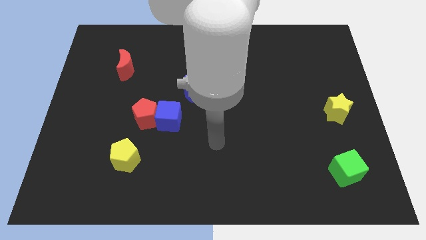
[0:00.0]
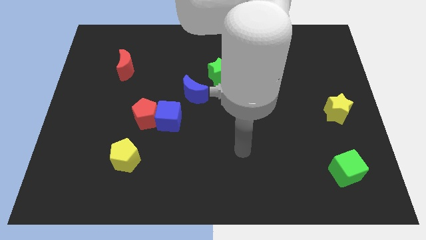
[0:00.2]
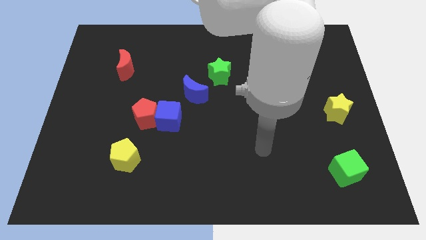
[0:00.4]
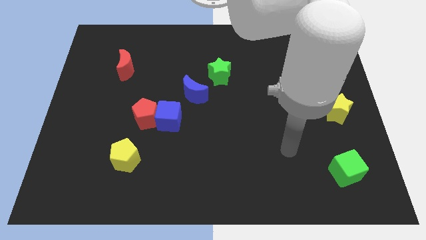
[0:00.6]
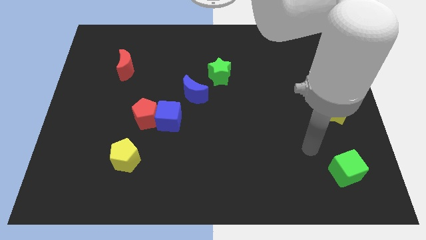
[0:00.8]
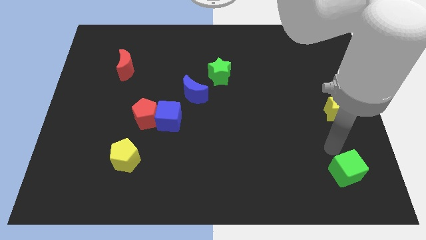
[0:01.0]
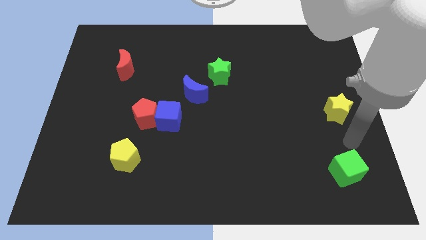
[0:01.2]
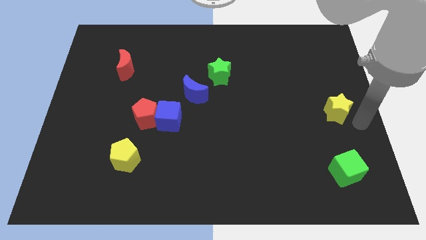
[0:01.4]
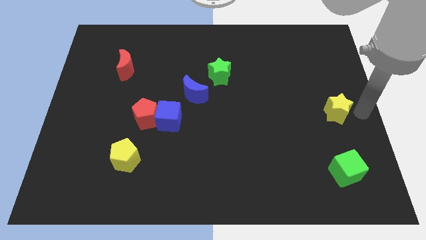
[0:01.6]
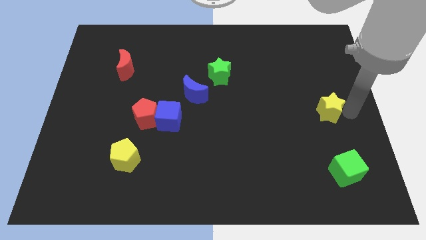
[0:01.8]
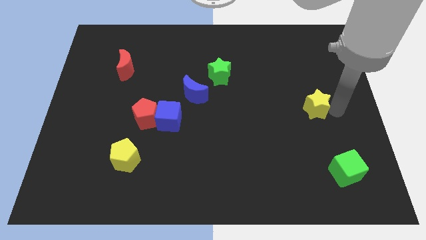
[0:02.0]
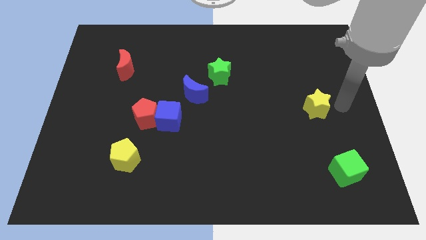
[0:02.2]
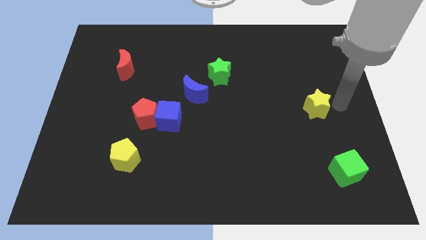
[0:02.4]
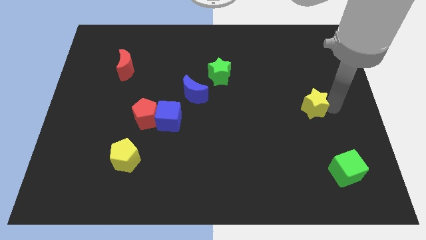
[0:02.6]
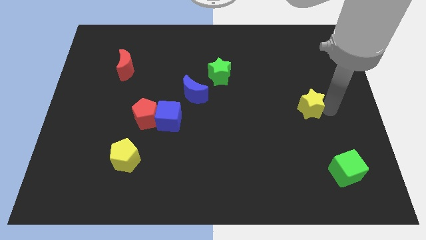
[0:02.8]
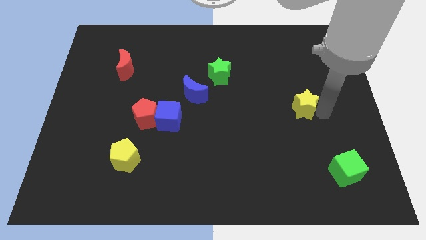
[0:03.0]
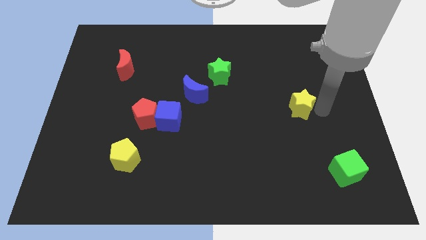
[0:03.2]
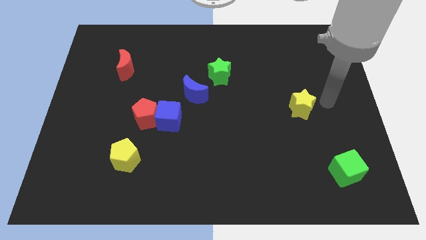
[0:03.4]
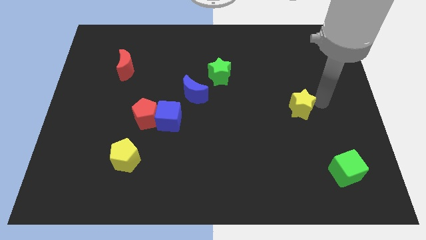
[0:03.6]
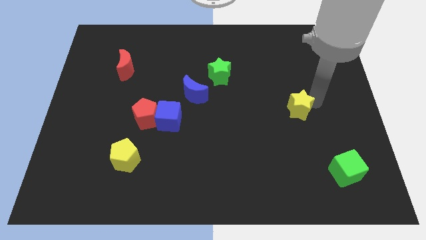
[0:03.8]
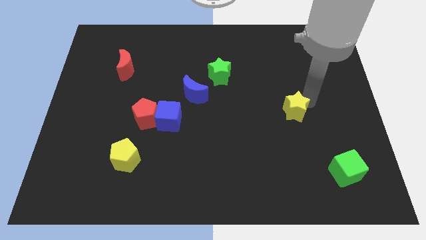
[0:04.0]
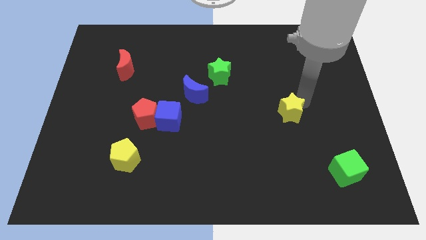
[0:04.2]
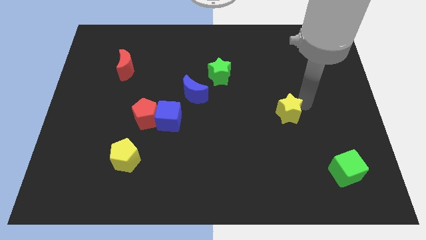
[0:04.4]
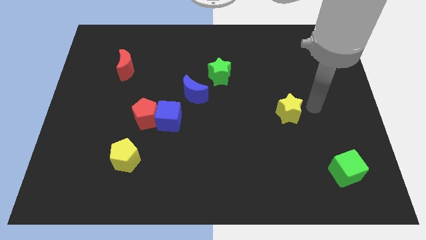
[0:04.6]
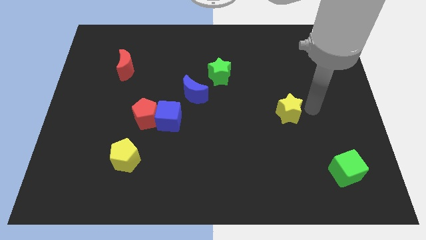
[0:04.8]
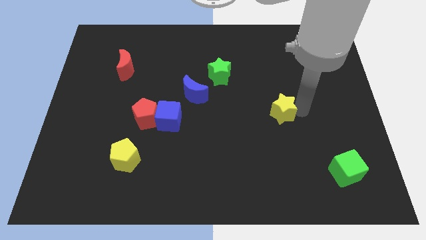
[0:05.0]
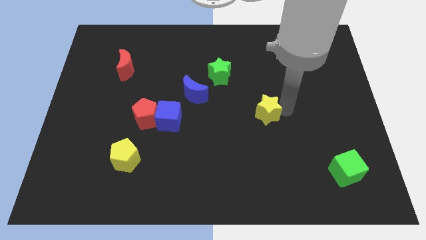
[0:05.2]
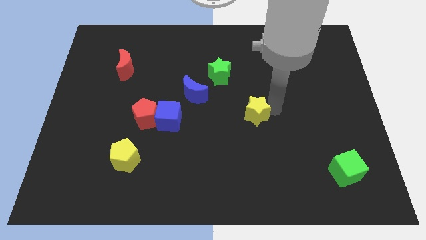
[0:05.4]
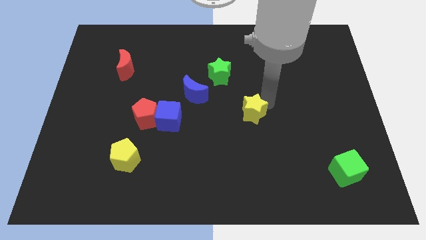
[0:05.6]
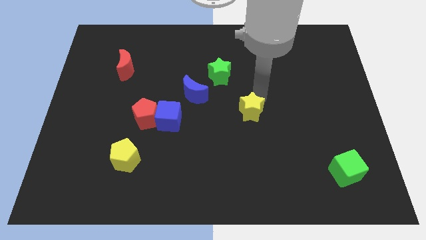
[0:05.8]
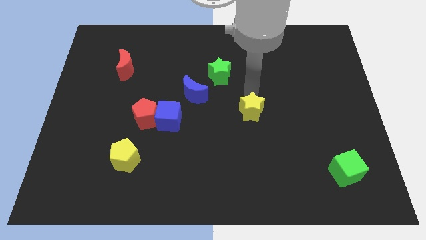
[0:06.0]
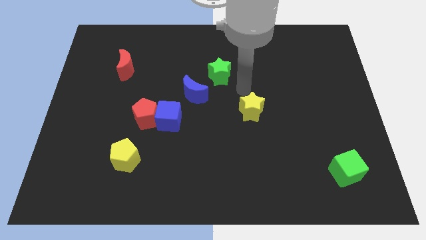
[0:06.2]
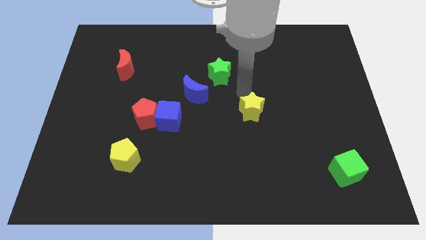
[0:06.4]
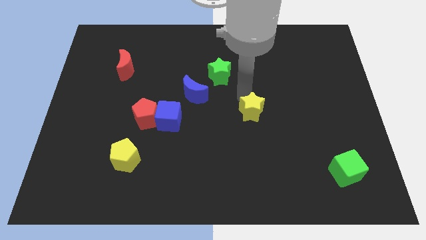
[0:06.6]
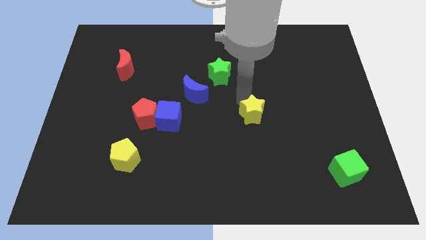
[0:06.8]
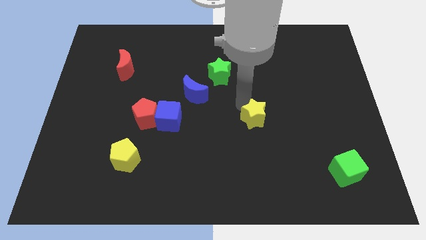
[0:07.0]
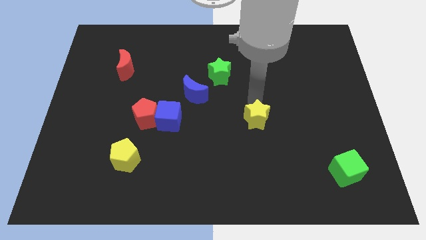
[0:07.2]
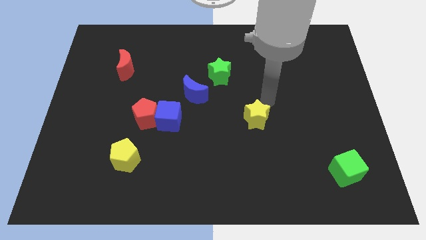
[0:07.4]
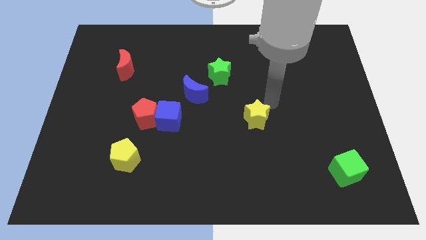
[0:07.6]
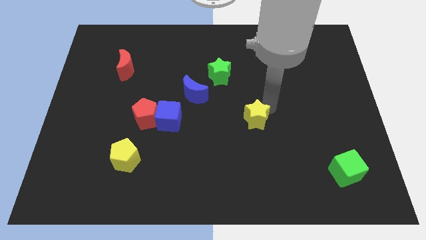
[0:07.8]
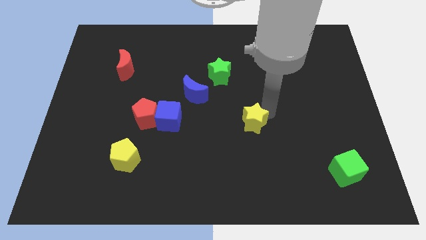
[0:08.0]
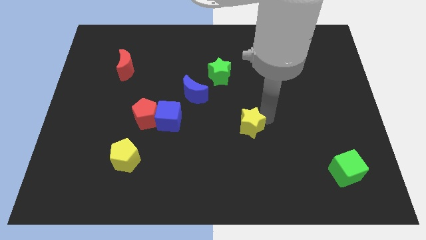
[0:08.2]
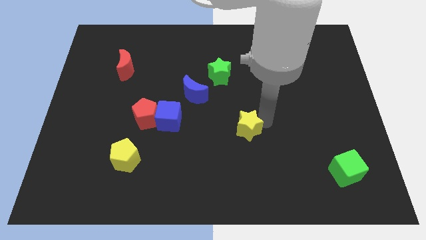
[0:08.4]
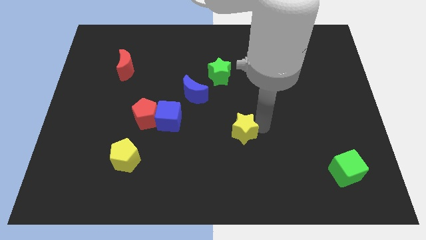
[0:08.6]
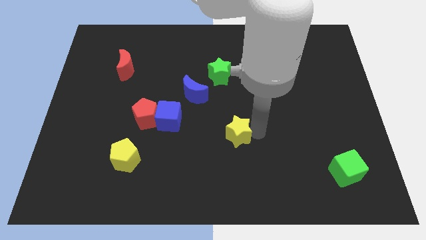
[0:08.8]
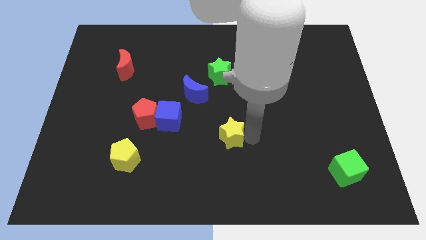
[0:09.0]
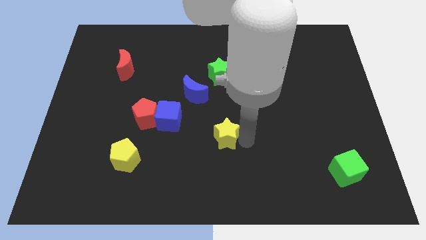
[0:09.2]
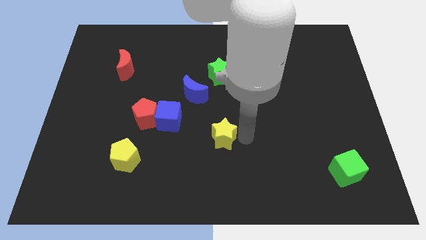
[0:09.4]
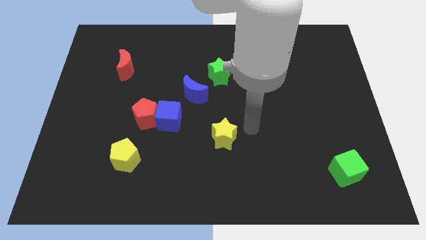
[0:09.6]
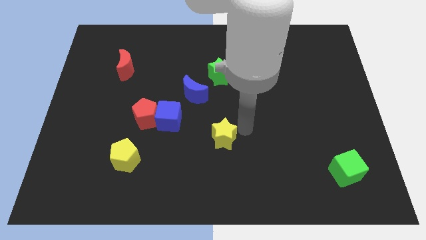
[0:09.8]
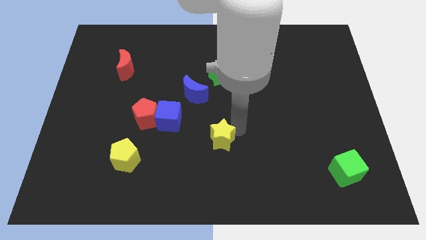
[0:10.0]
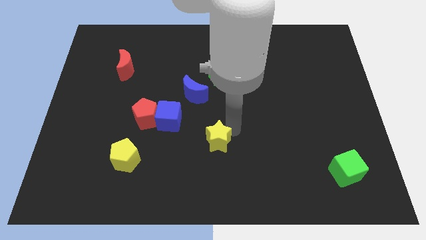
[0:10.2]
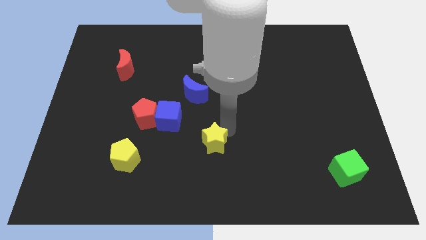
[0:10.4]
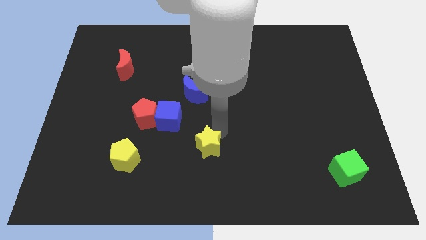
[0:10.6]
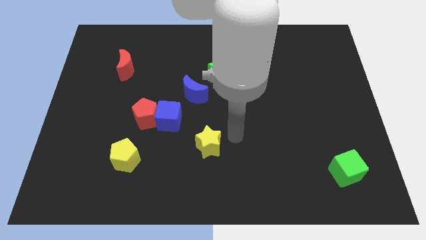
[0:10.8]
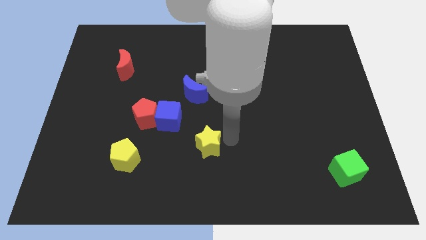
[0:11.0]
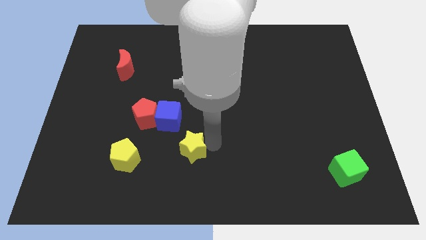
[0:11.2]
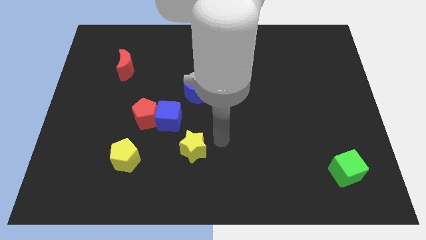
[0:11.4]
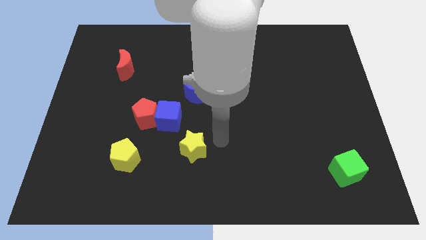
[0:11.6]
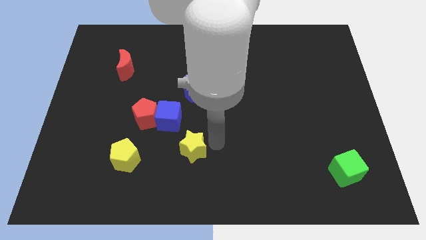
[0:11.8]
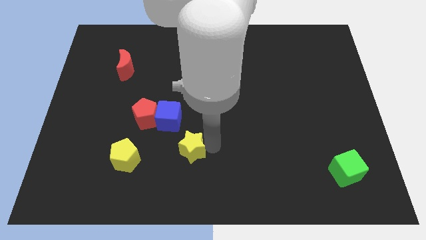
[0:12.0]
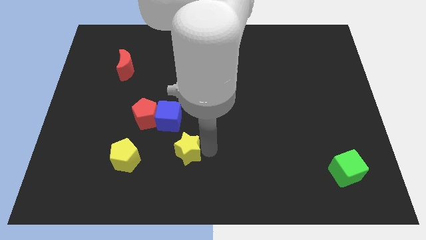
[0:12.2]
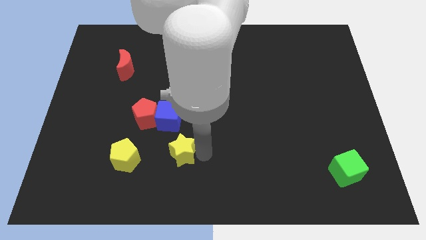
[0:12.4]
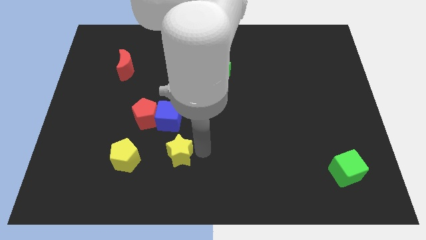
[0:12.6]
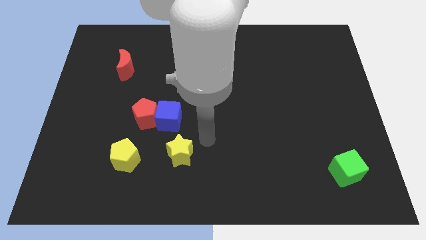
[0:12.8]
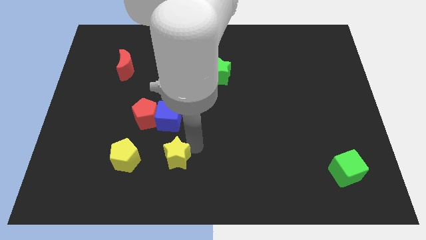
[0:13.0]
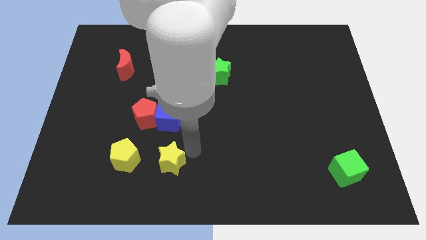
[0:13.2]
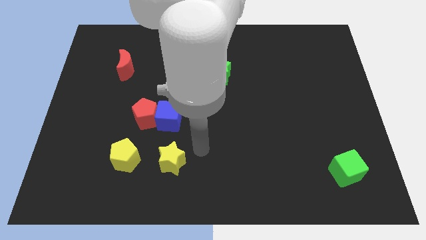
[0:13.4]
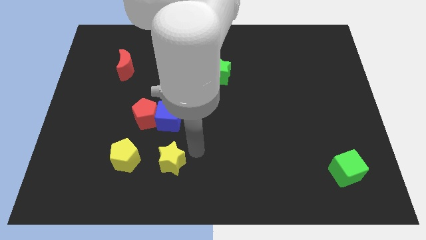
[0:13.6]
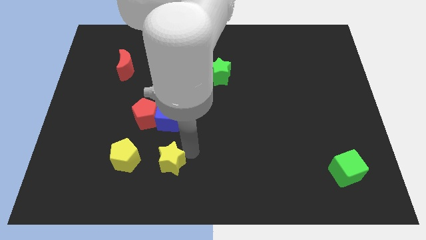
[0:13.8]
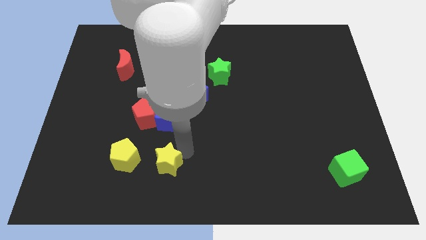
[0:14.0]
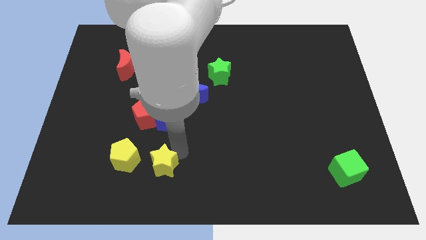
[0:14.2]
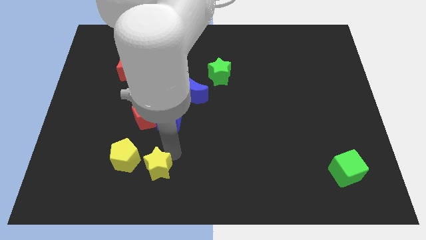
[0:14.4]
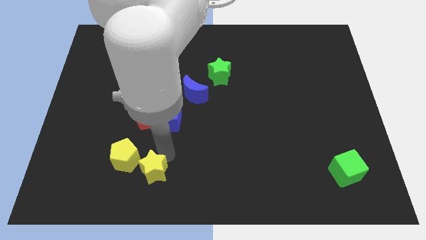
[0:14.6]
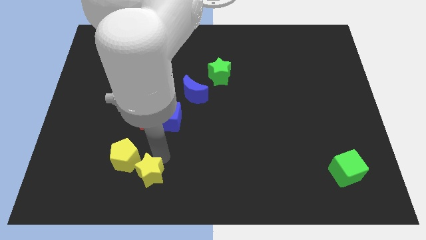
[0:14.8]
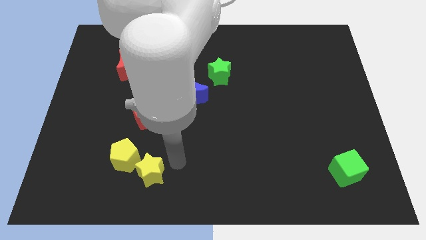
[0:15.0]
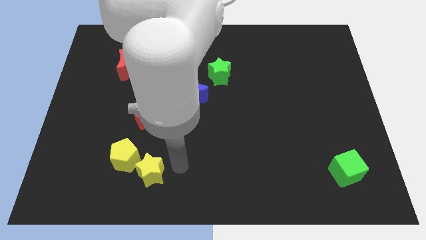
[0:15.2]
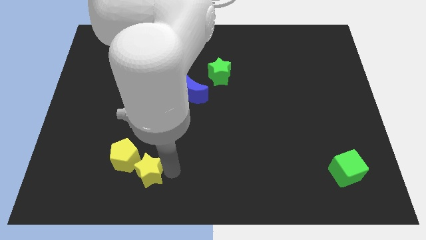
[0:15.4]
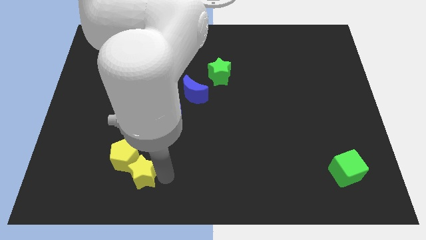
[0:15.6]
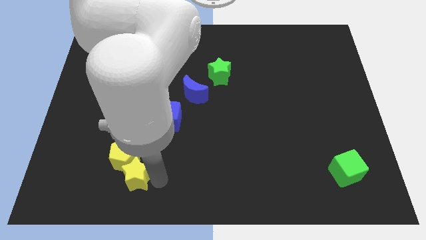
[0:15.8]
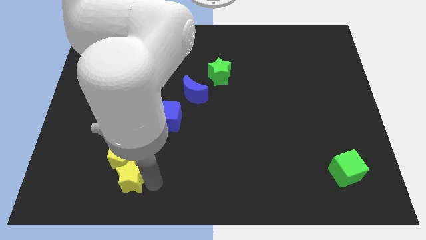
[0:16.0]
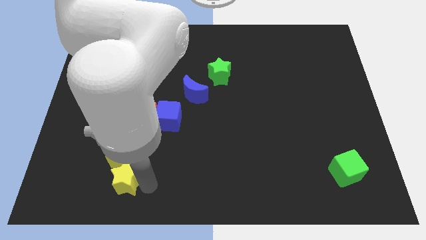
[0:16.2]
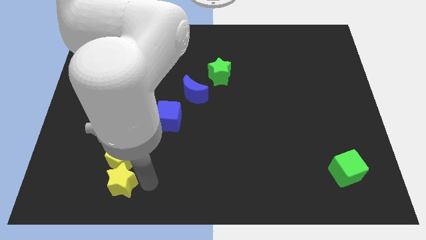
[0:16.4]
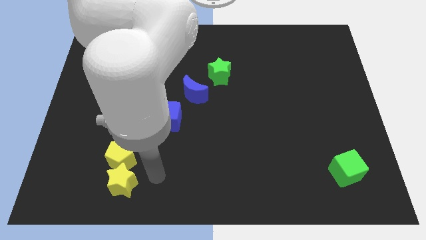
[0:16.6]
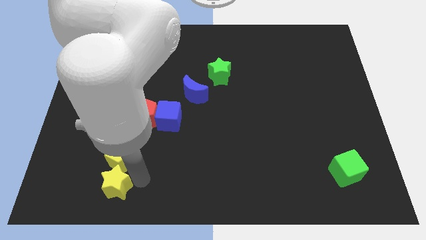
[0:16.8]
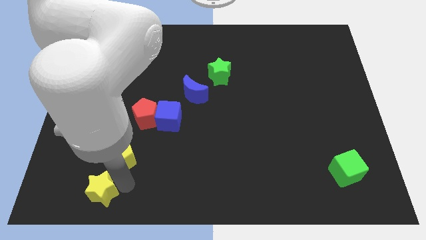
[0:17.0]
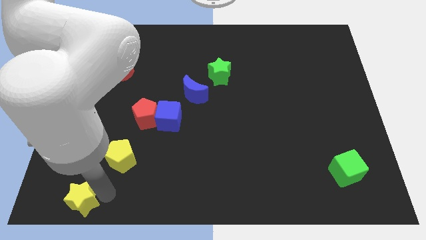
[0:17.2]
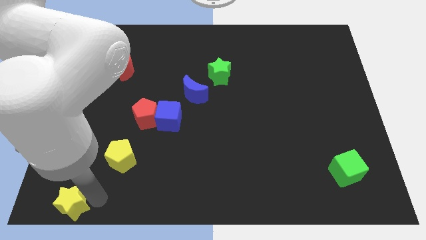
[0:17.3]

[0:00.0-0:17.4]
put the yellow star to the bottom left of the board
